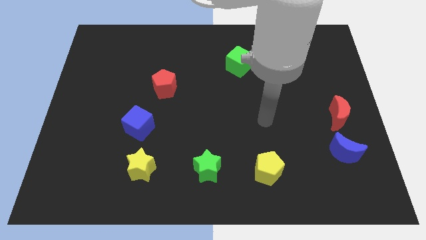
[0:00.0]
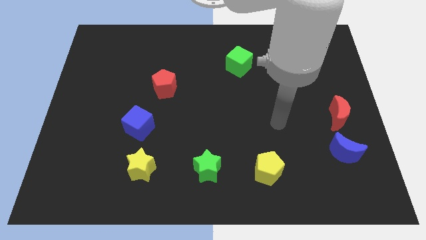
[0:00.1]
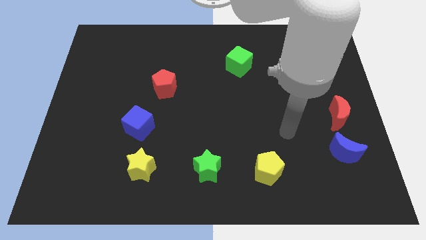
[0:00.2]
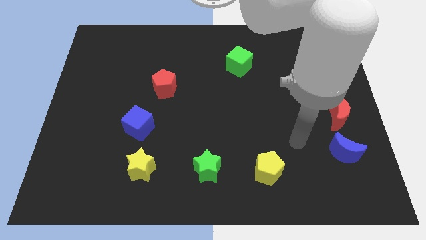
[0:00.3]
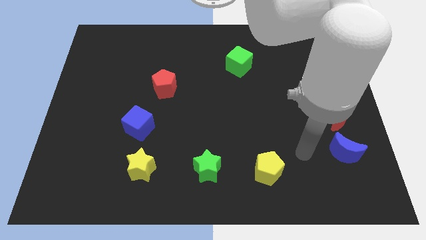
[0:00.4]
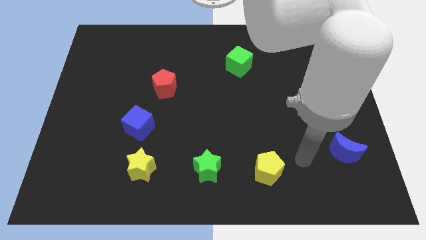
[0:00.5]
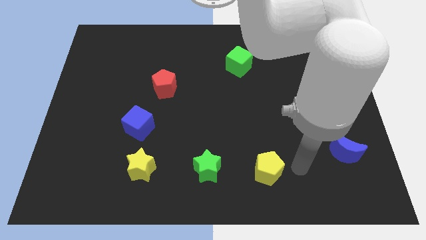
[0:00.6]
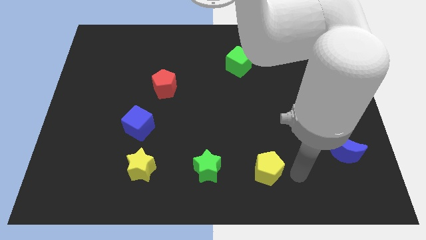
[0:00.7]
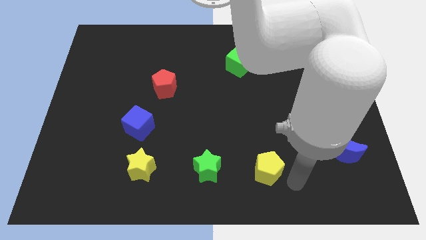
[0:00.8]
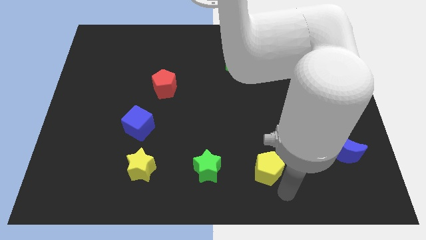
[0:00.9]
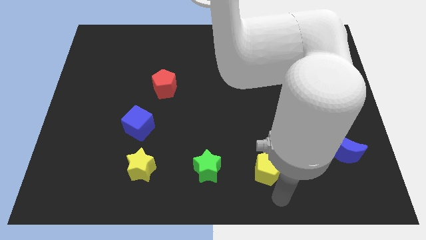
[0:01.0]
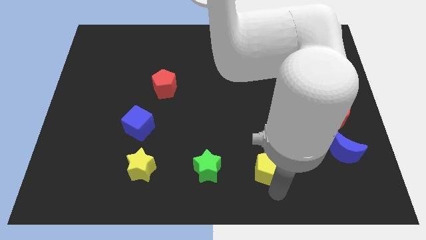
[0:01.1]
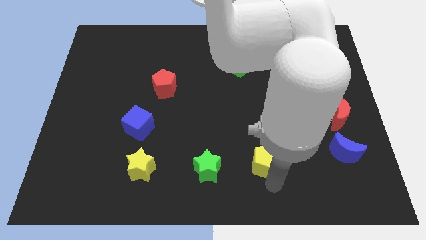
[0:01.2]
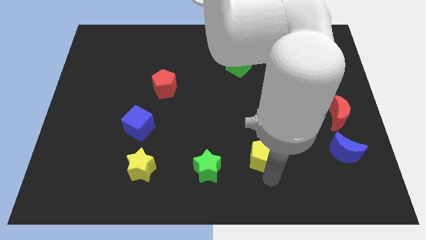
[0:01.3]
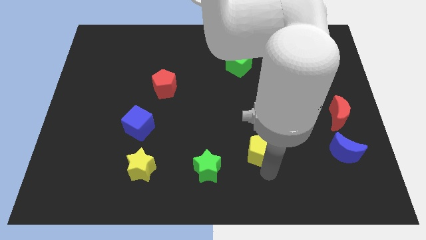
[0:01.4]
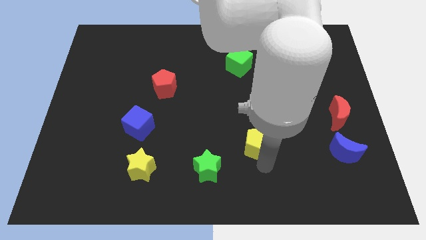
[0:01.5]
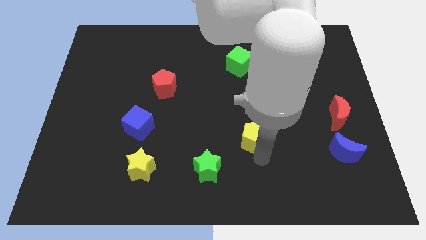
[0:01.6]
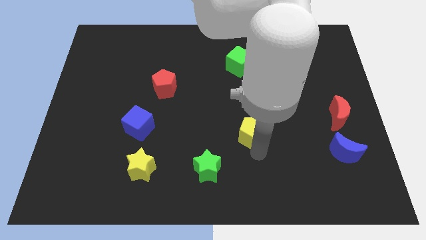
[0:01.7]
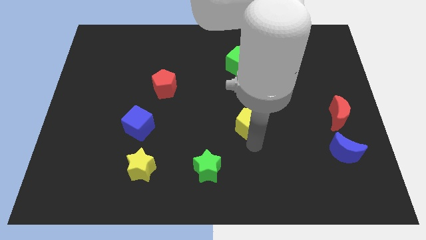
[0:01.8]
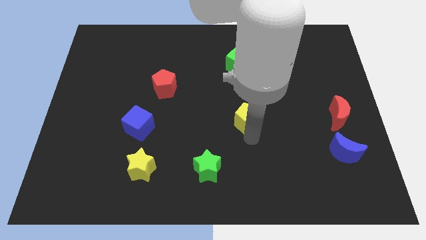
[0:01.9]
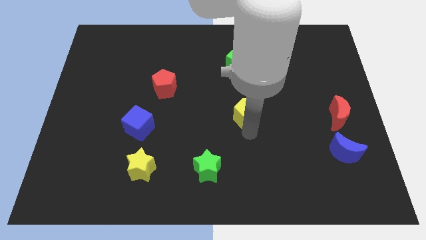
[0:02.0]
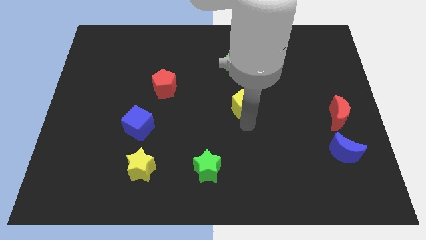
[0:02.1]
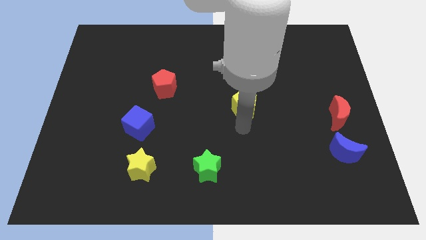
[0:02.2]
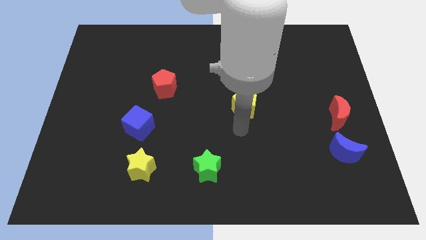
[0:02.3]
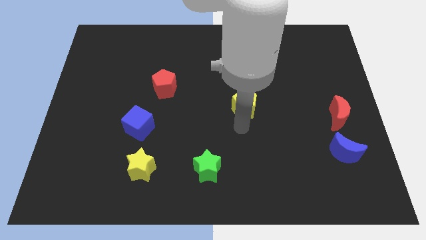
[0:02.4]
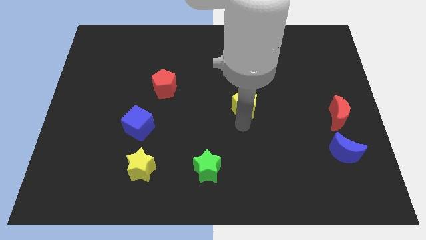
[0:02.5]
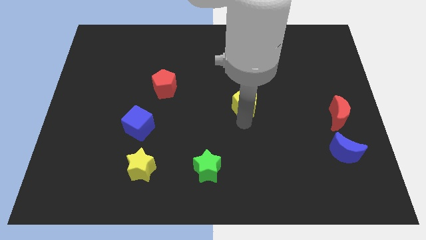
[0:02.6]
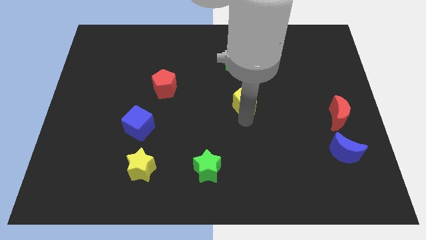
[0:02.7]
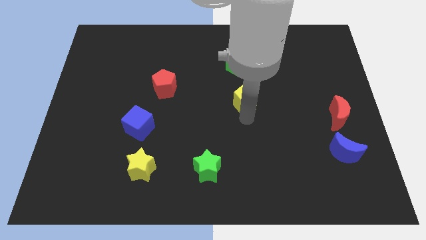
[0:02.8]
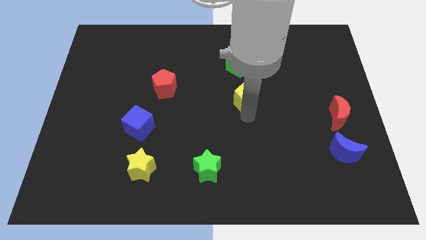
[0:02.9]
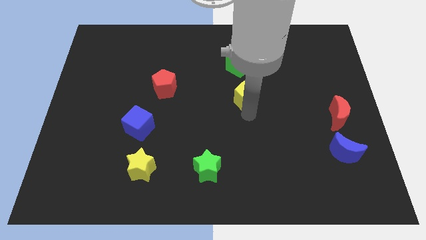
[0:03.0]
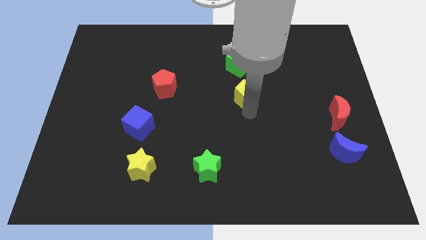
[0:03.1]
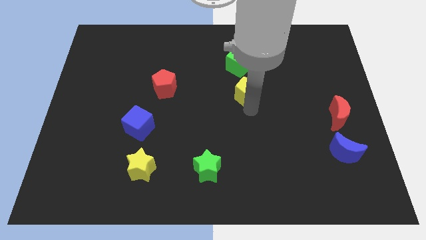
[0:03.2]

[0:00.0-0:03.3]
slide the yellow pentagon up

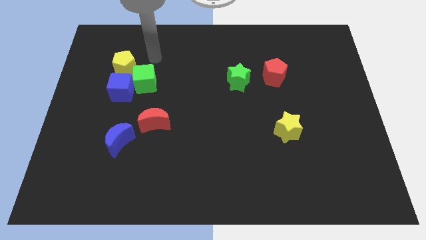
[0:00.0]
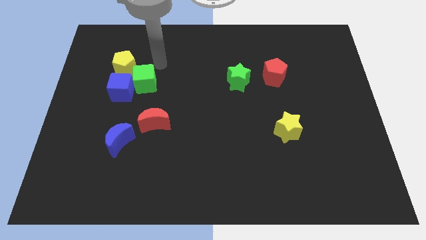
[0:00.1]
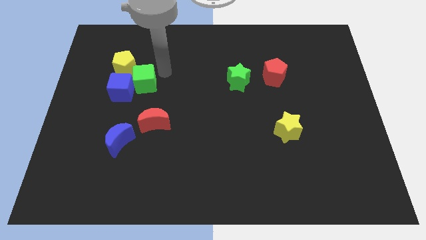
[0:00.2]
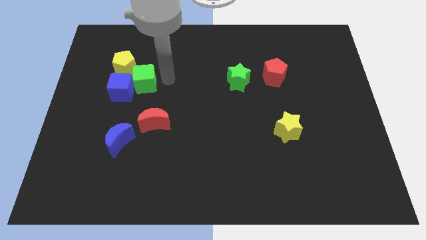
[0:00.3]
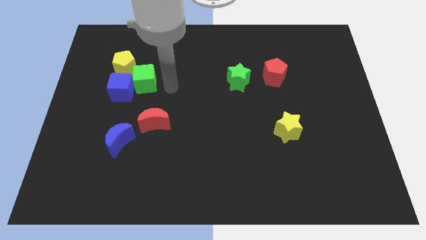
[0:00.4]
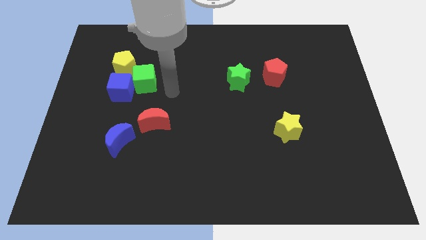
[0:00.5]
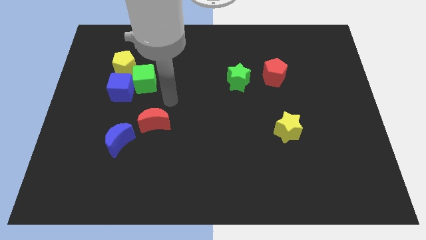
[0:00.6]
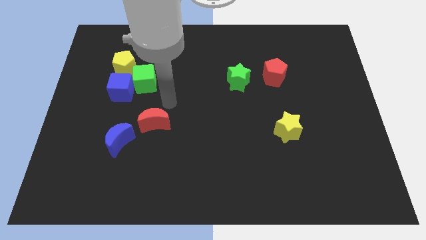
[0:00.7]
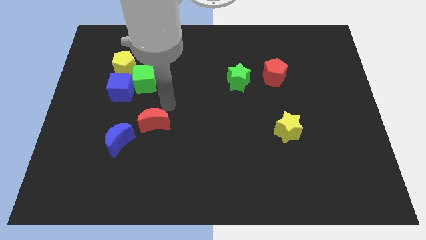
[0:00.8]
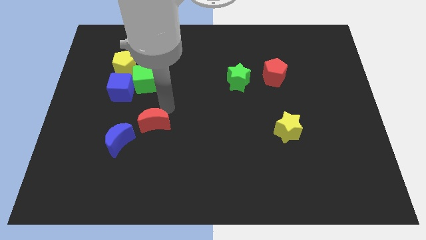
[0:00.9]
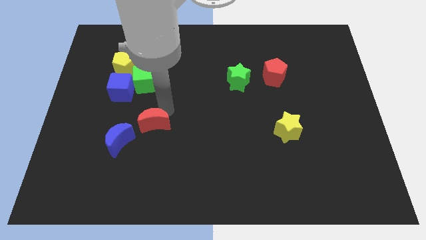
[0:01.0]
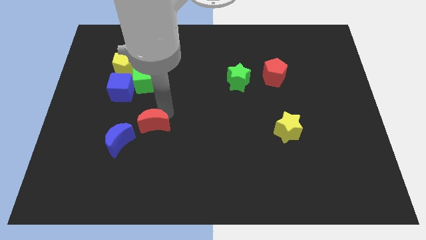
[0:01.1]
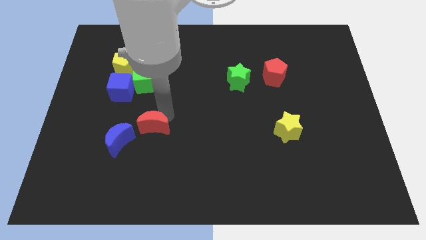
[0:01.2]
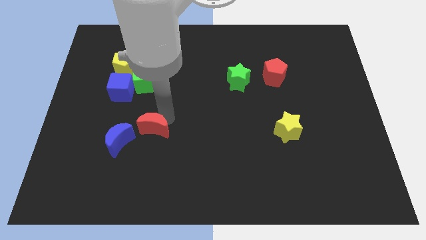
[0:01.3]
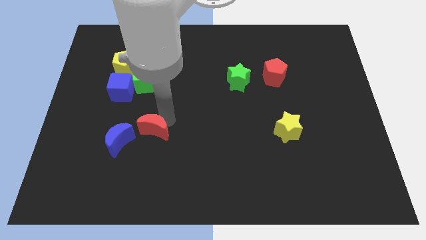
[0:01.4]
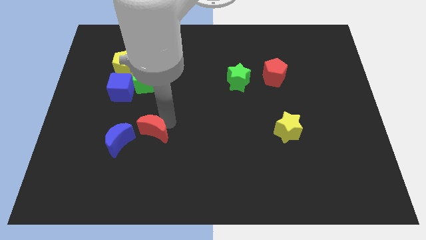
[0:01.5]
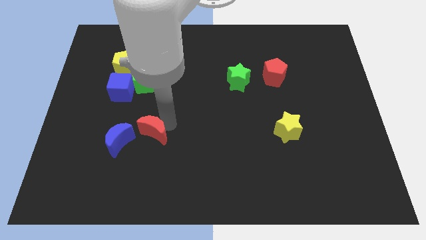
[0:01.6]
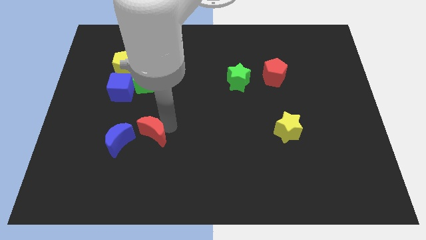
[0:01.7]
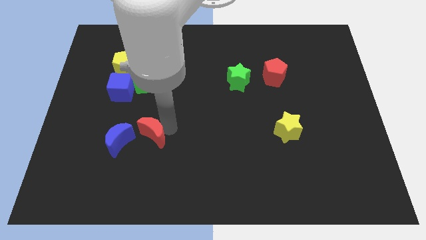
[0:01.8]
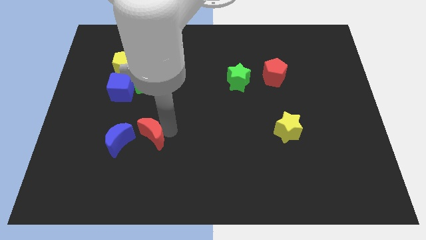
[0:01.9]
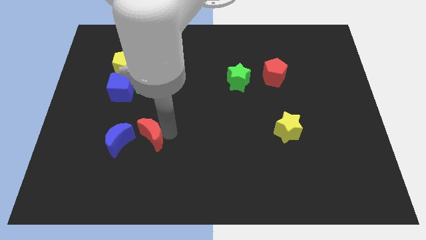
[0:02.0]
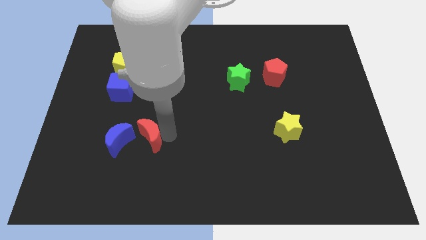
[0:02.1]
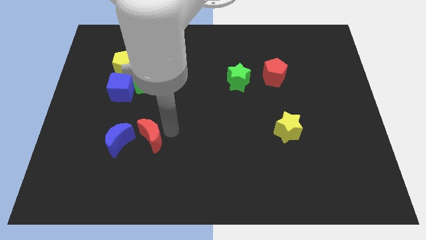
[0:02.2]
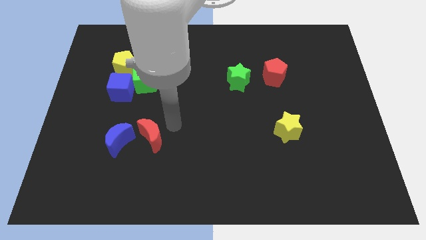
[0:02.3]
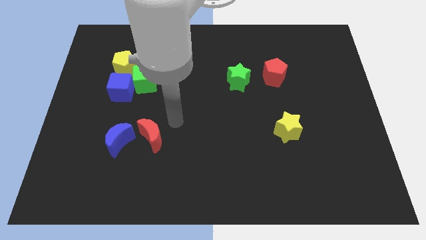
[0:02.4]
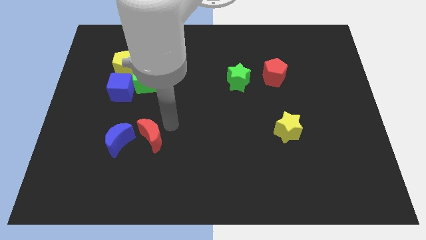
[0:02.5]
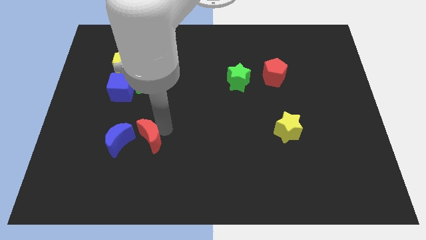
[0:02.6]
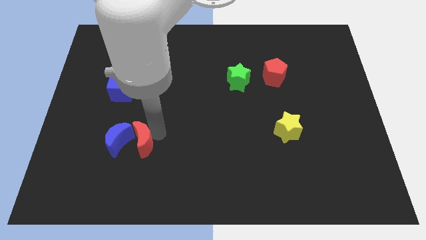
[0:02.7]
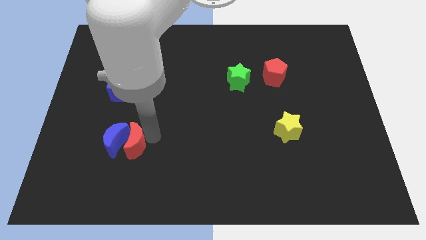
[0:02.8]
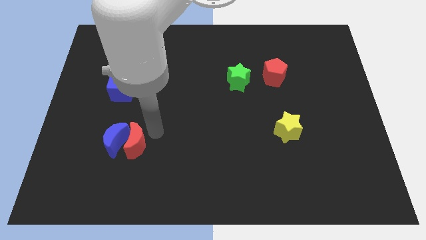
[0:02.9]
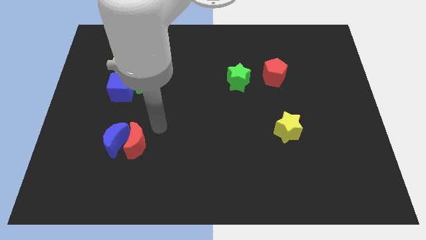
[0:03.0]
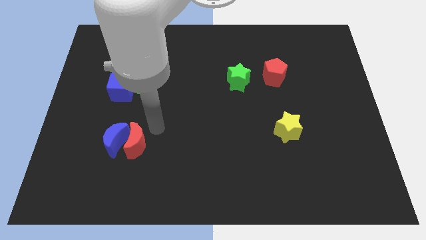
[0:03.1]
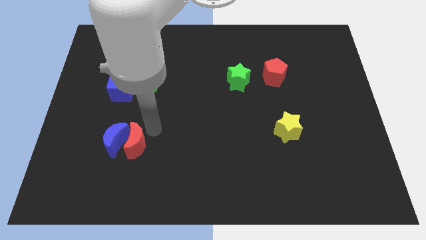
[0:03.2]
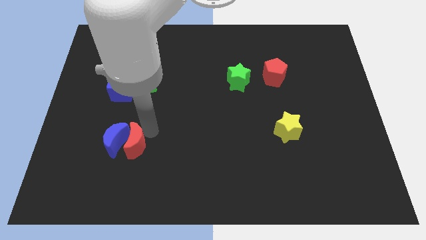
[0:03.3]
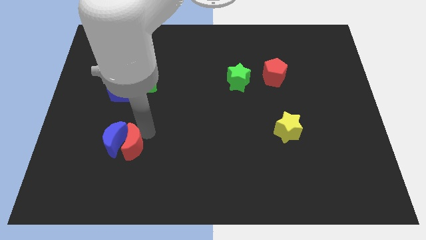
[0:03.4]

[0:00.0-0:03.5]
slightly push the red moon down and then left

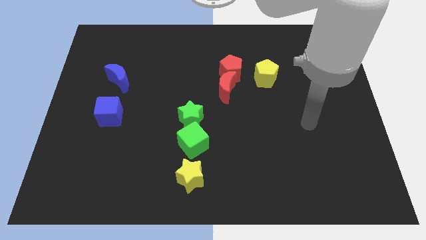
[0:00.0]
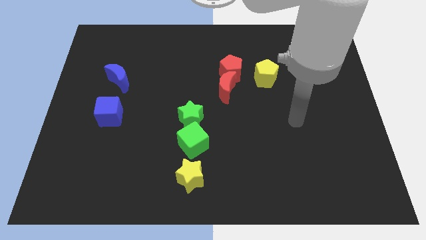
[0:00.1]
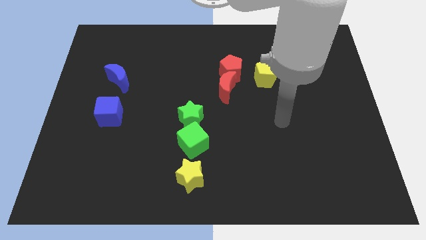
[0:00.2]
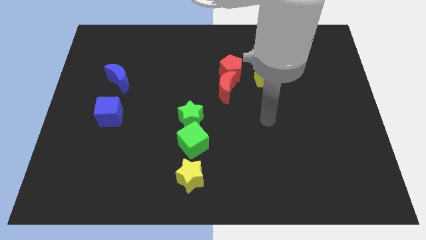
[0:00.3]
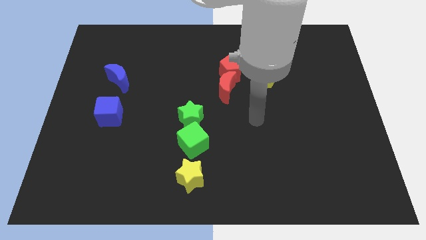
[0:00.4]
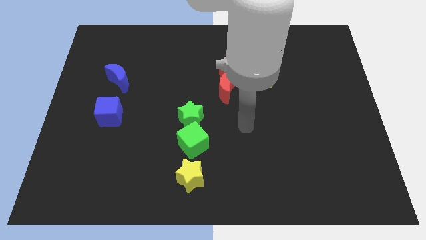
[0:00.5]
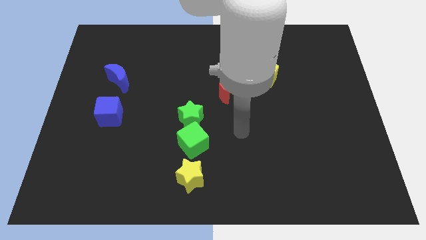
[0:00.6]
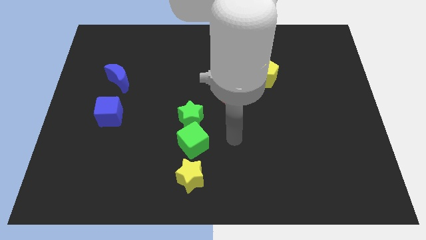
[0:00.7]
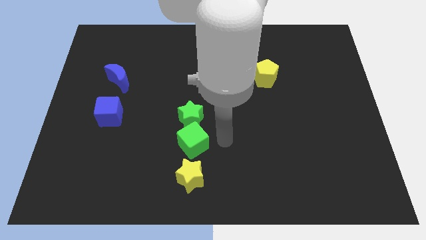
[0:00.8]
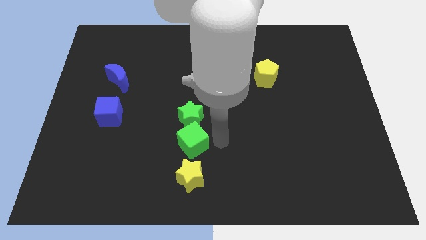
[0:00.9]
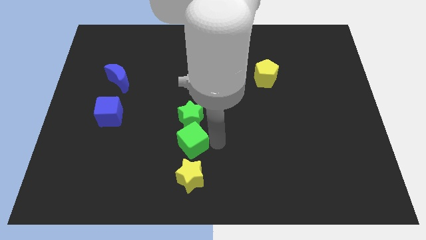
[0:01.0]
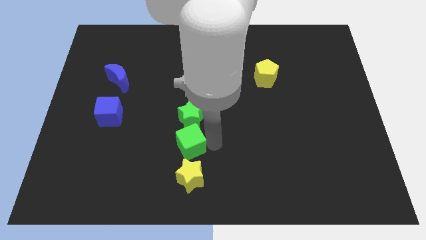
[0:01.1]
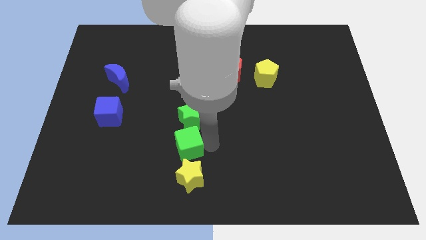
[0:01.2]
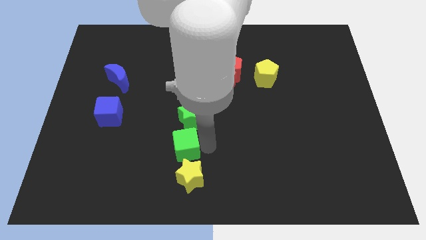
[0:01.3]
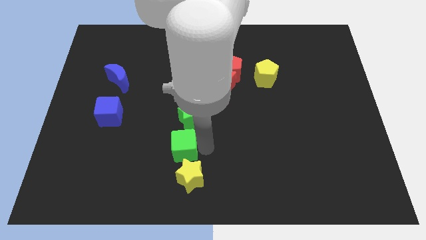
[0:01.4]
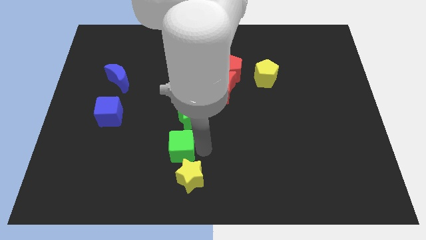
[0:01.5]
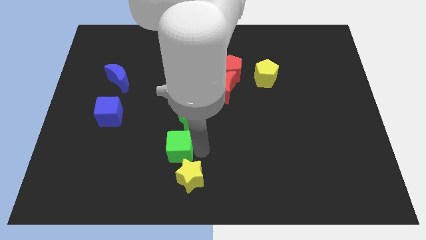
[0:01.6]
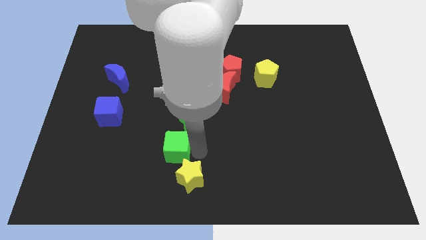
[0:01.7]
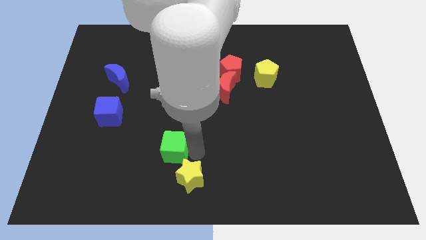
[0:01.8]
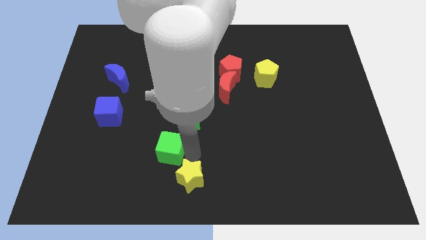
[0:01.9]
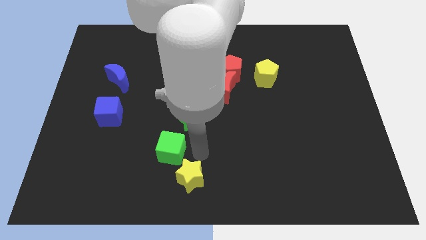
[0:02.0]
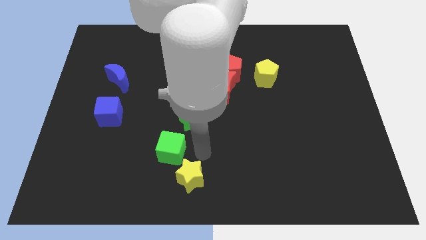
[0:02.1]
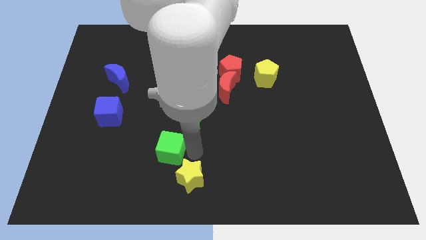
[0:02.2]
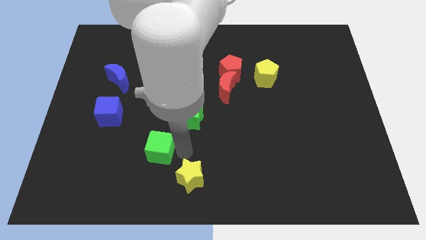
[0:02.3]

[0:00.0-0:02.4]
slightly push the green cube to the left
